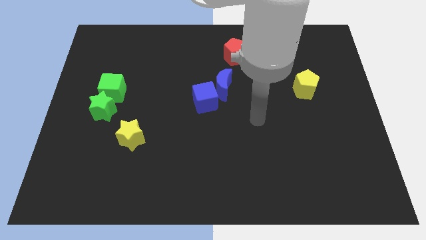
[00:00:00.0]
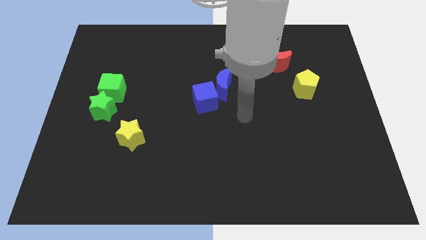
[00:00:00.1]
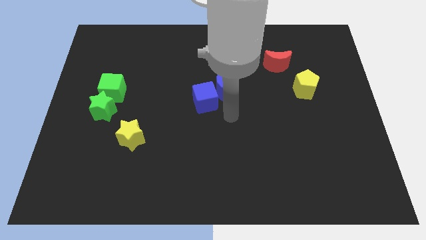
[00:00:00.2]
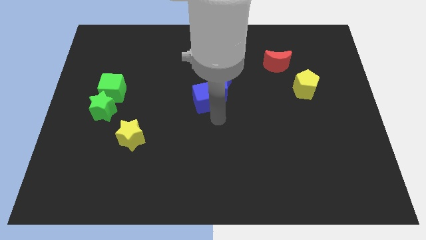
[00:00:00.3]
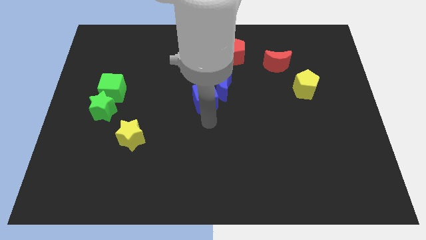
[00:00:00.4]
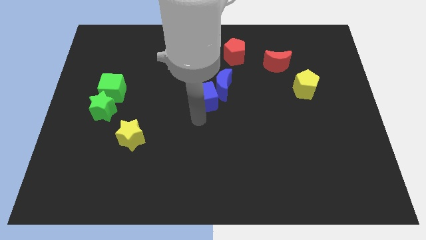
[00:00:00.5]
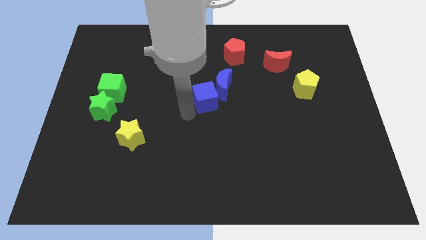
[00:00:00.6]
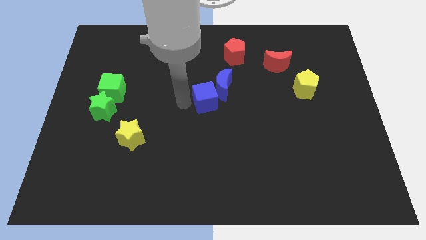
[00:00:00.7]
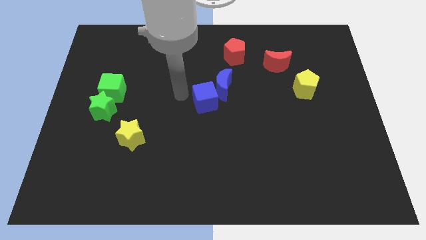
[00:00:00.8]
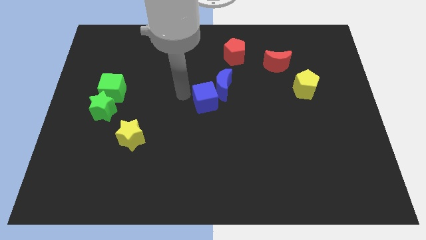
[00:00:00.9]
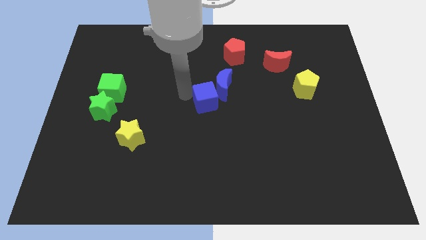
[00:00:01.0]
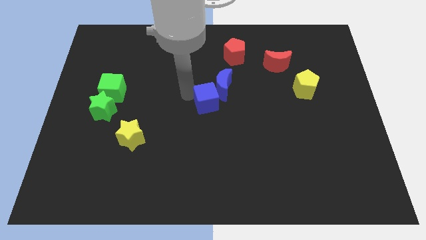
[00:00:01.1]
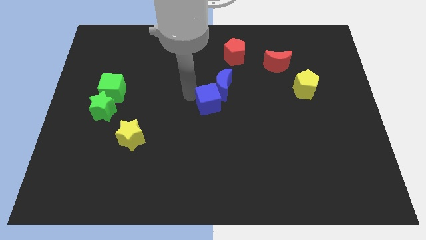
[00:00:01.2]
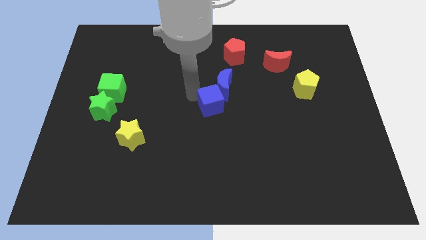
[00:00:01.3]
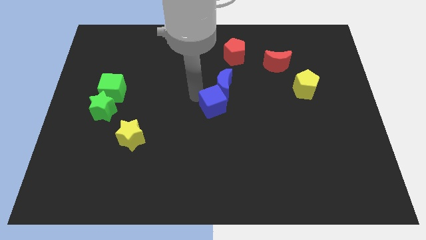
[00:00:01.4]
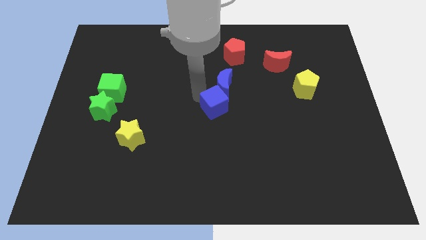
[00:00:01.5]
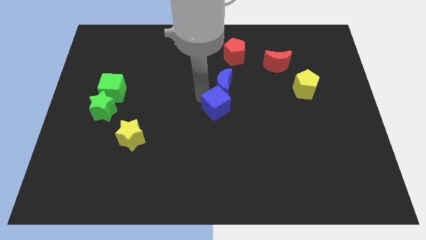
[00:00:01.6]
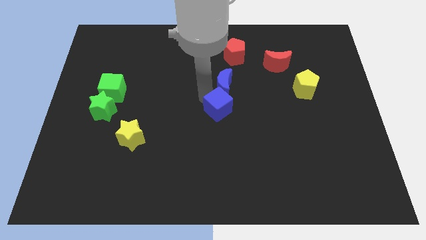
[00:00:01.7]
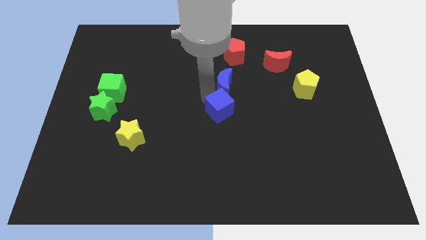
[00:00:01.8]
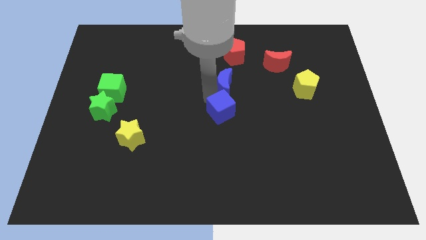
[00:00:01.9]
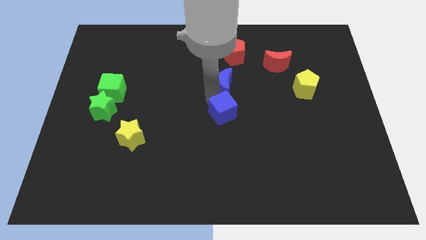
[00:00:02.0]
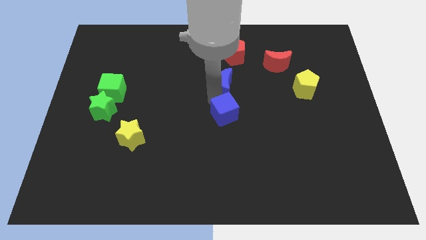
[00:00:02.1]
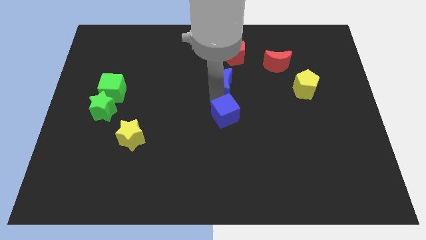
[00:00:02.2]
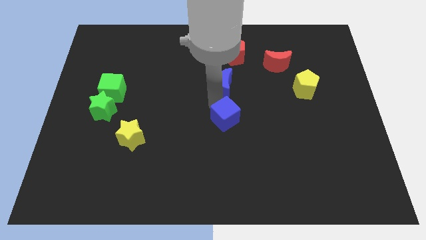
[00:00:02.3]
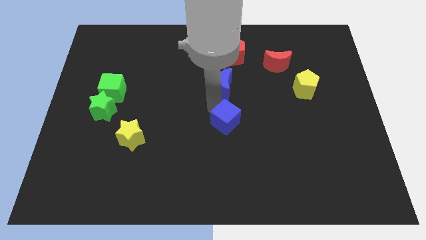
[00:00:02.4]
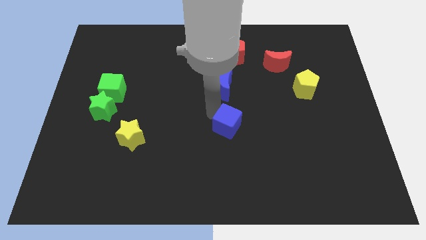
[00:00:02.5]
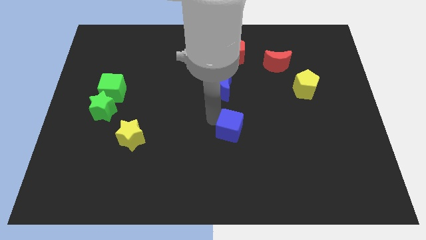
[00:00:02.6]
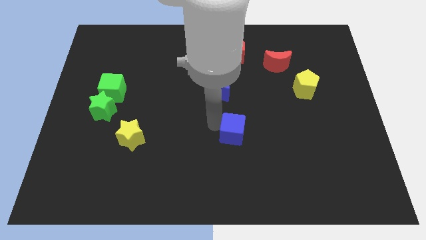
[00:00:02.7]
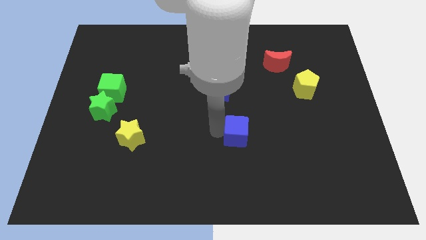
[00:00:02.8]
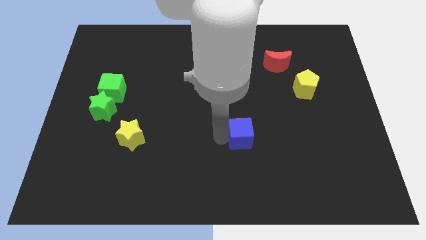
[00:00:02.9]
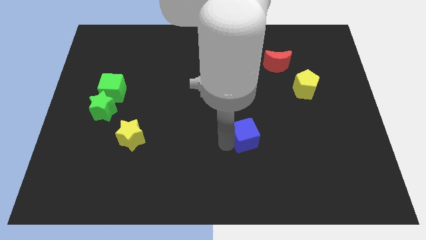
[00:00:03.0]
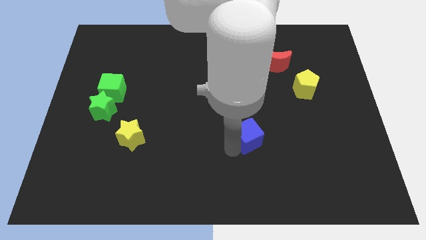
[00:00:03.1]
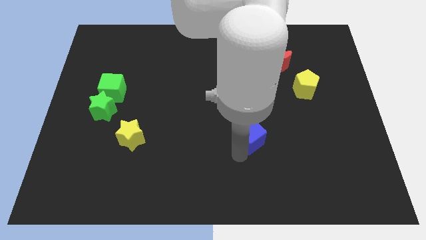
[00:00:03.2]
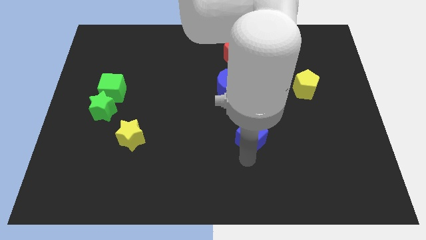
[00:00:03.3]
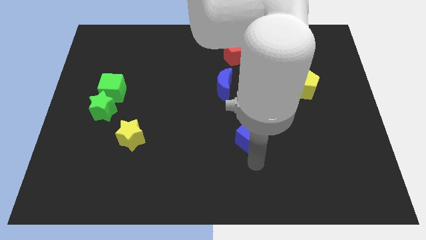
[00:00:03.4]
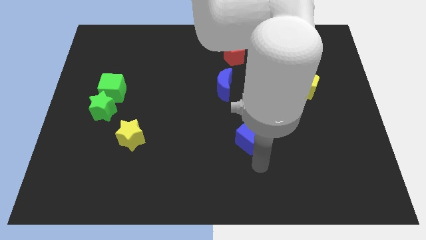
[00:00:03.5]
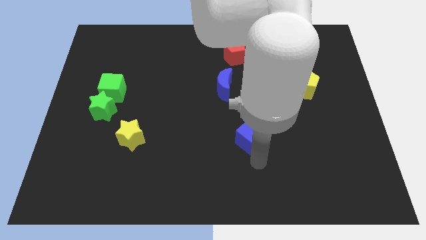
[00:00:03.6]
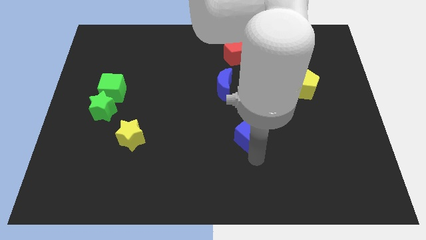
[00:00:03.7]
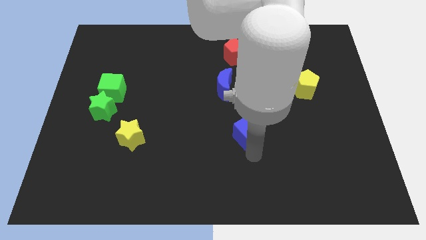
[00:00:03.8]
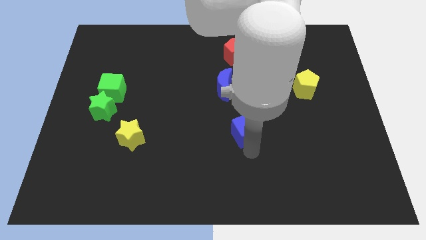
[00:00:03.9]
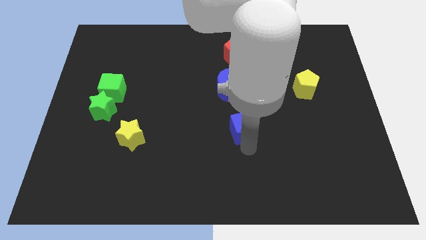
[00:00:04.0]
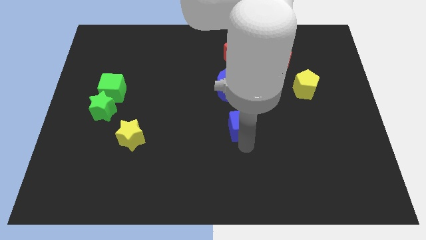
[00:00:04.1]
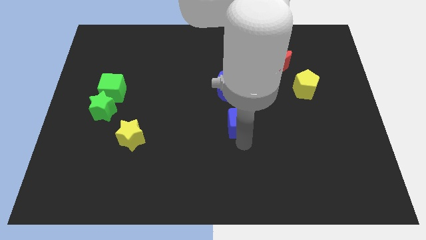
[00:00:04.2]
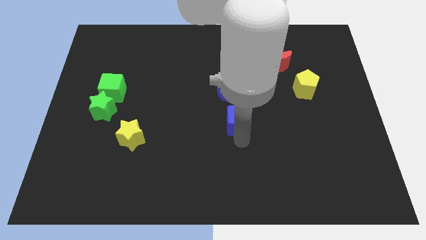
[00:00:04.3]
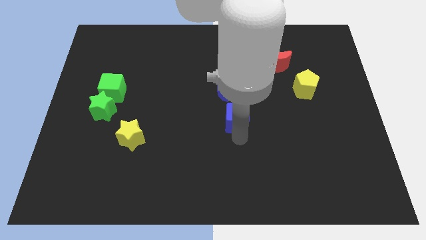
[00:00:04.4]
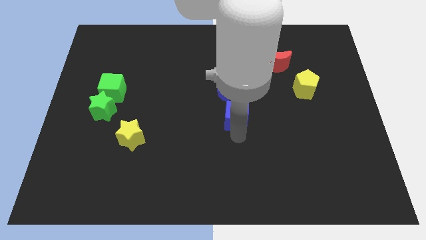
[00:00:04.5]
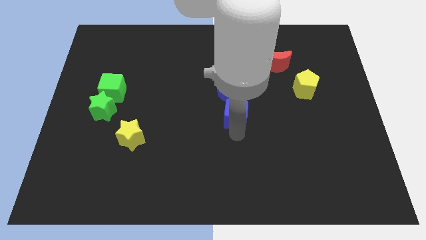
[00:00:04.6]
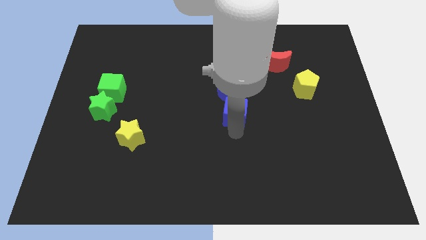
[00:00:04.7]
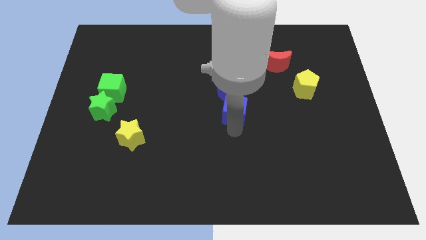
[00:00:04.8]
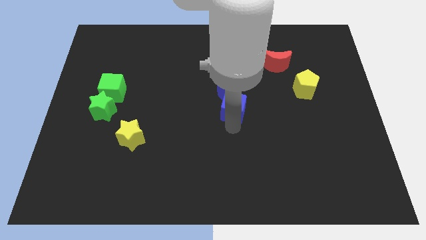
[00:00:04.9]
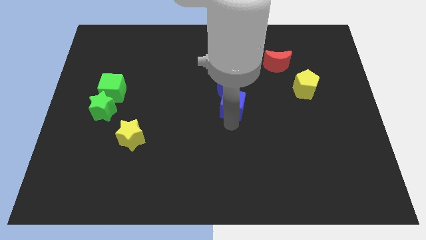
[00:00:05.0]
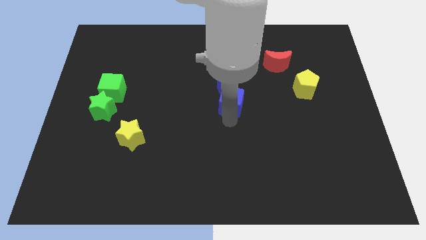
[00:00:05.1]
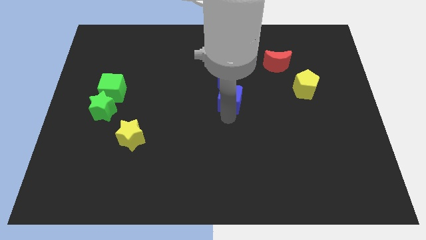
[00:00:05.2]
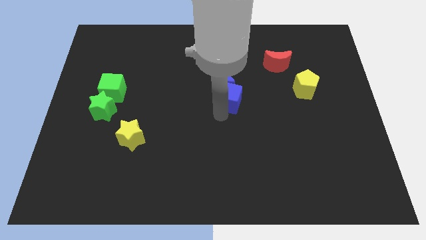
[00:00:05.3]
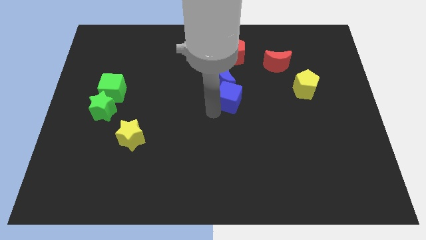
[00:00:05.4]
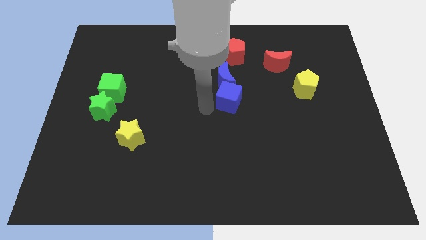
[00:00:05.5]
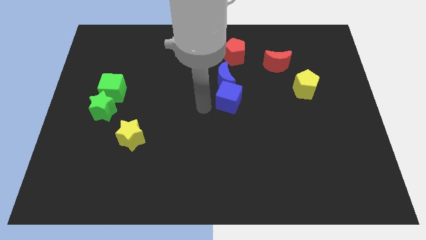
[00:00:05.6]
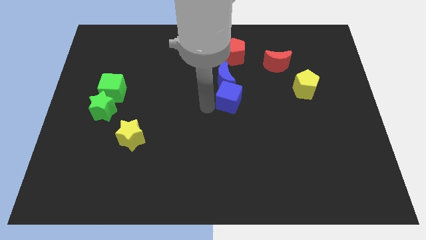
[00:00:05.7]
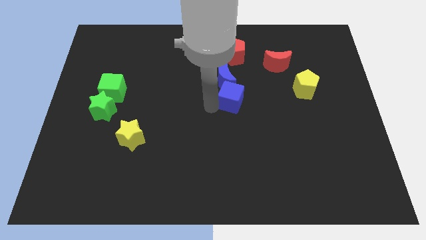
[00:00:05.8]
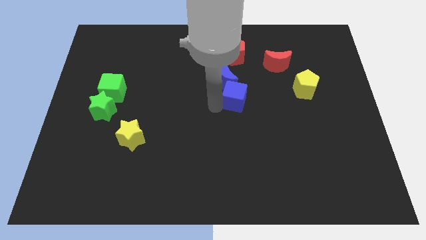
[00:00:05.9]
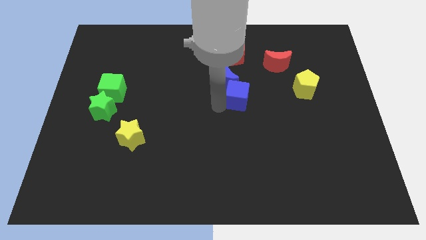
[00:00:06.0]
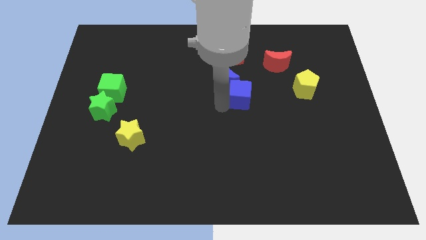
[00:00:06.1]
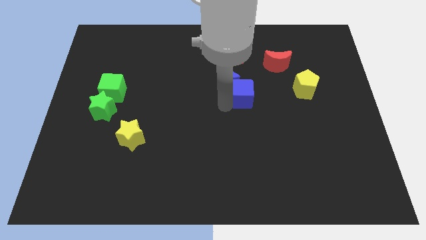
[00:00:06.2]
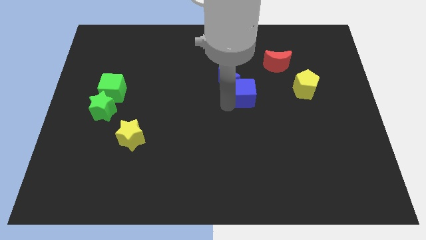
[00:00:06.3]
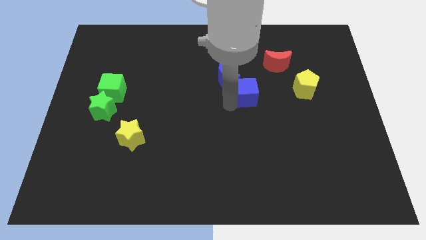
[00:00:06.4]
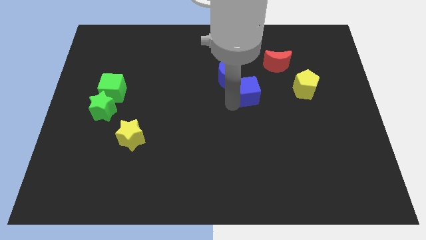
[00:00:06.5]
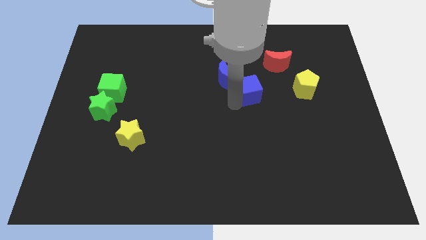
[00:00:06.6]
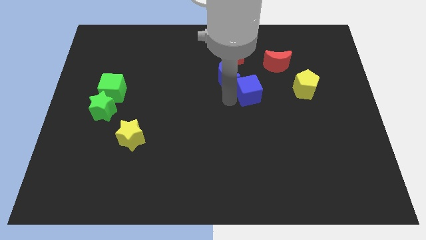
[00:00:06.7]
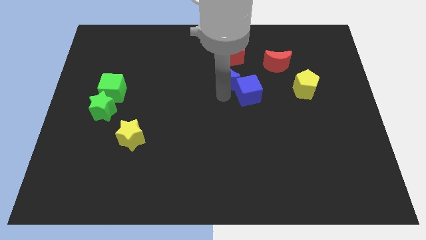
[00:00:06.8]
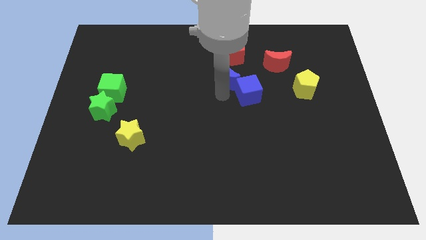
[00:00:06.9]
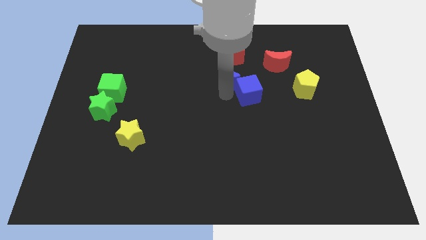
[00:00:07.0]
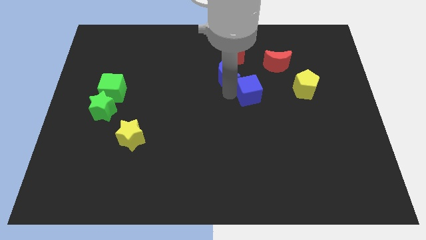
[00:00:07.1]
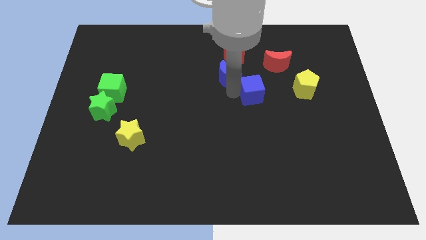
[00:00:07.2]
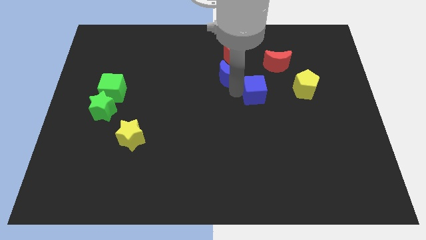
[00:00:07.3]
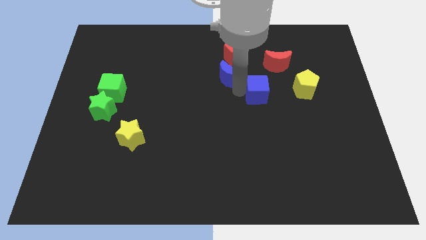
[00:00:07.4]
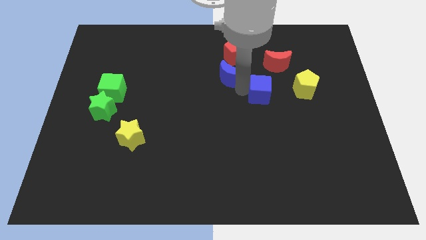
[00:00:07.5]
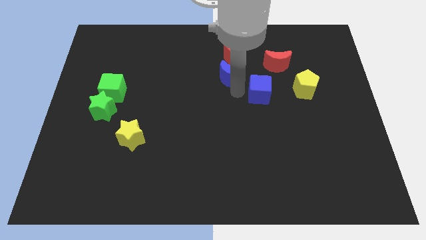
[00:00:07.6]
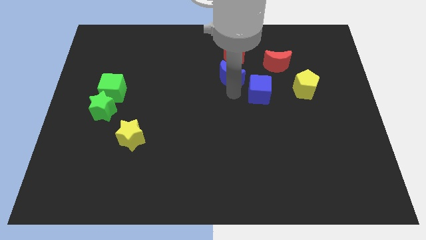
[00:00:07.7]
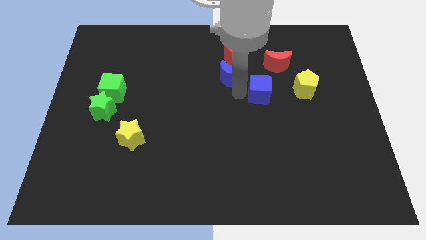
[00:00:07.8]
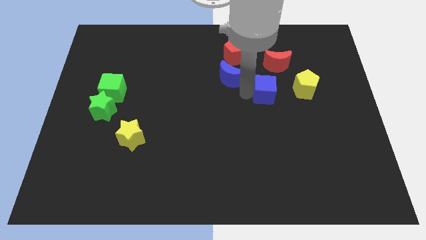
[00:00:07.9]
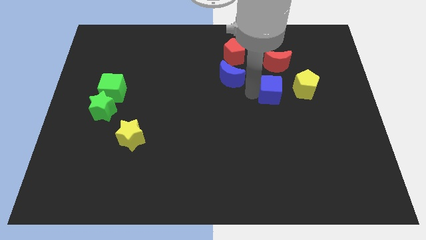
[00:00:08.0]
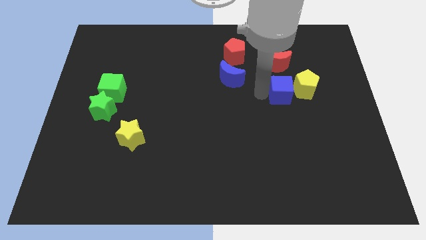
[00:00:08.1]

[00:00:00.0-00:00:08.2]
move the blue cube close to the yellow pentagon
